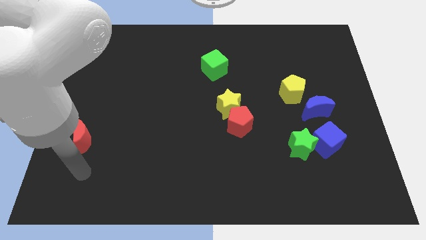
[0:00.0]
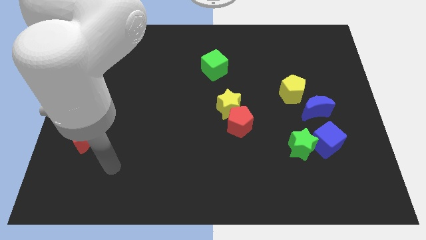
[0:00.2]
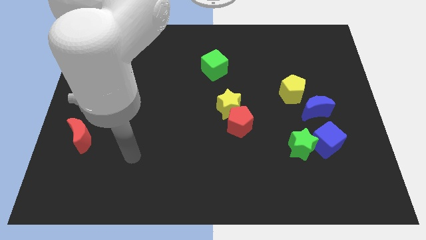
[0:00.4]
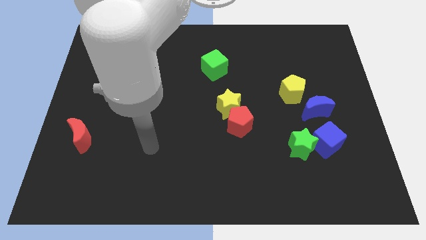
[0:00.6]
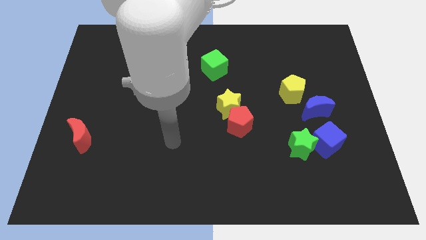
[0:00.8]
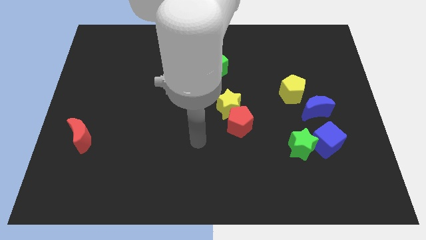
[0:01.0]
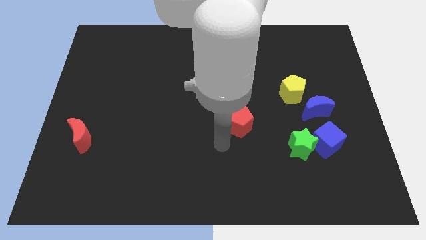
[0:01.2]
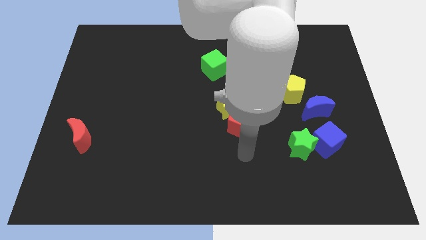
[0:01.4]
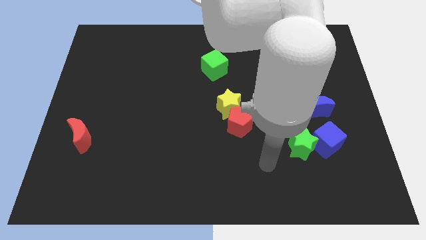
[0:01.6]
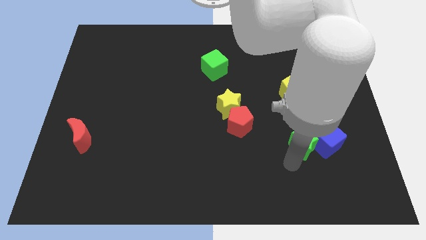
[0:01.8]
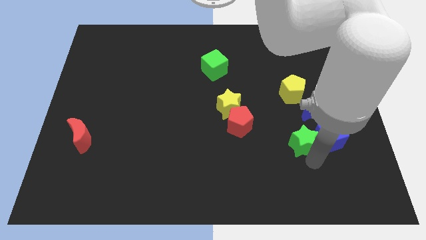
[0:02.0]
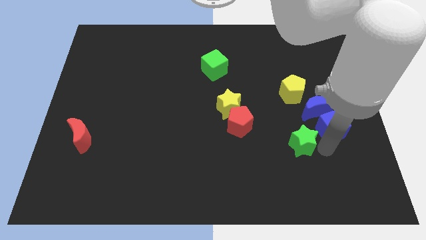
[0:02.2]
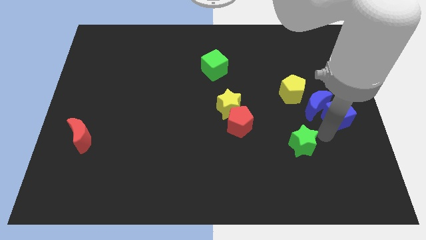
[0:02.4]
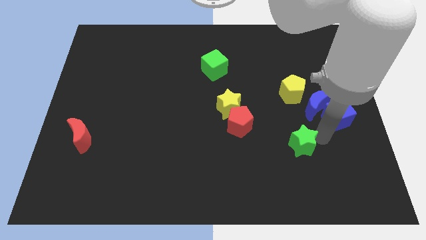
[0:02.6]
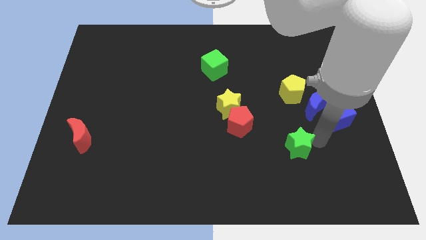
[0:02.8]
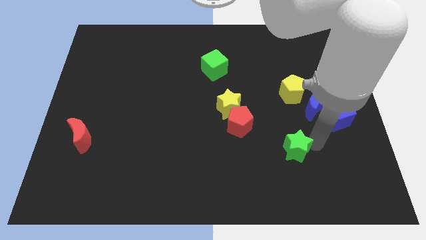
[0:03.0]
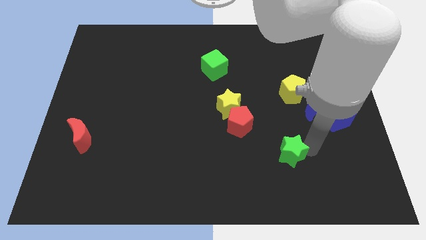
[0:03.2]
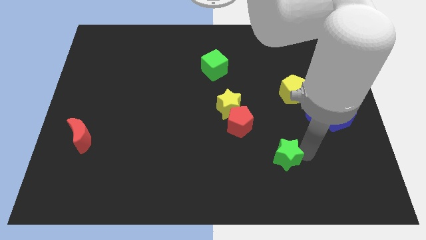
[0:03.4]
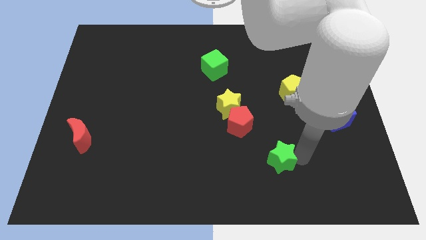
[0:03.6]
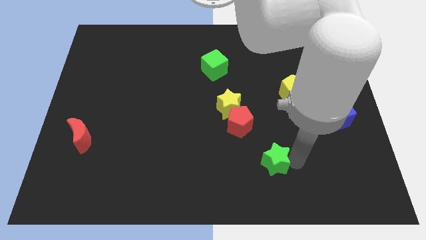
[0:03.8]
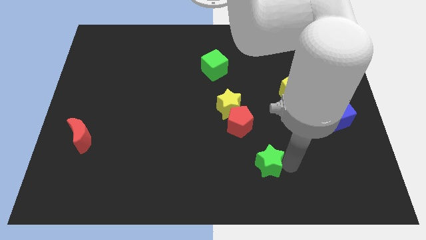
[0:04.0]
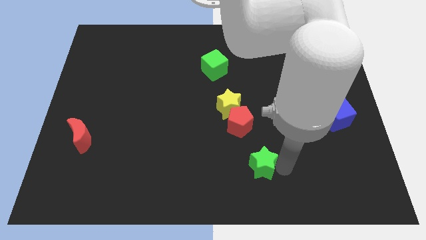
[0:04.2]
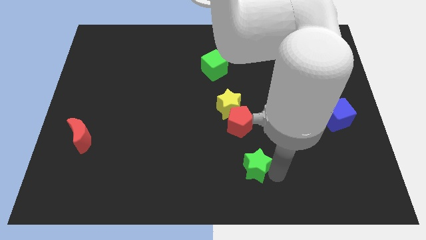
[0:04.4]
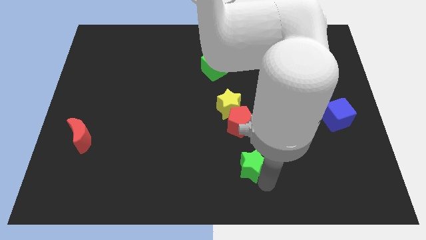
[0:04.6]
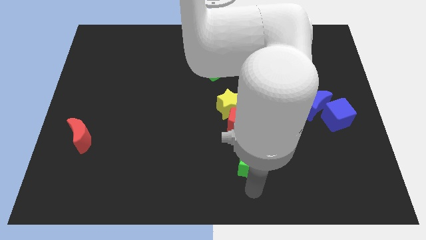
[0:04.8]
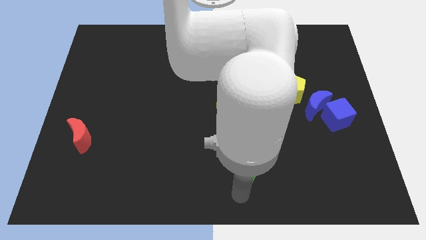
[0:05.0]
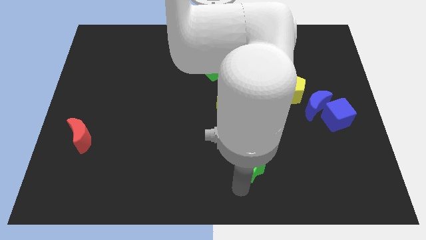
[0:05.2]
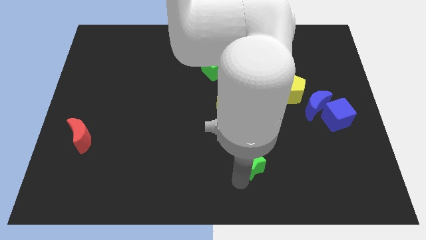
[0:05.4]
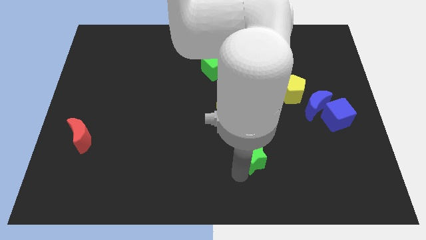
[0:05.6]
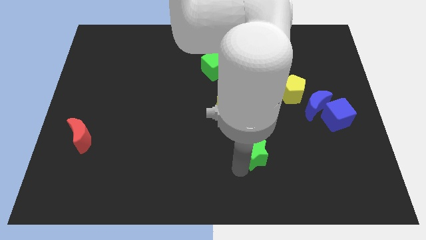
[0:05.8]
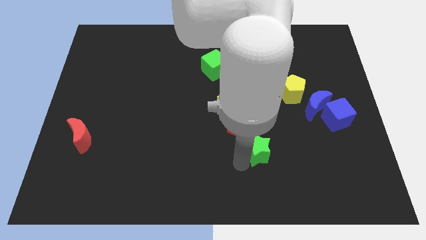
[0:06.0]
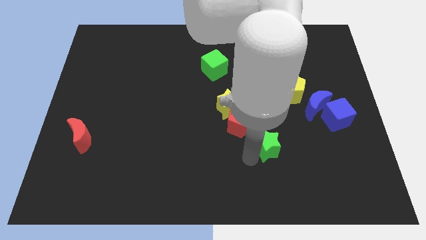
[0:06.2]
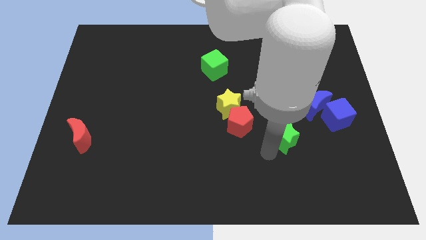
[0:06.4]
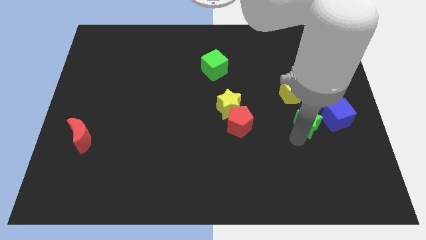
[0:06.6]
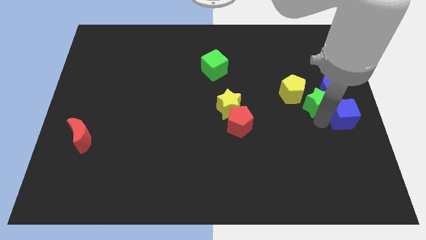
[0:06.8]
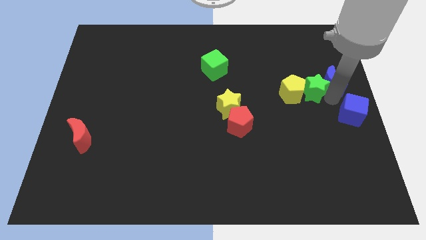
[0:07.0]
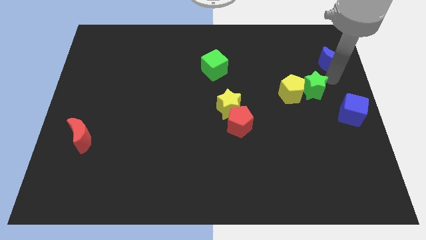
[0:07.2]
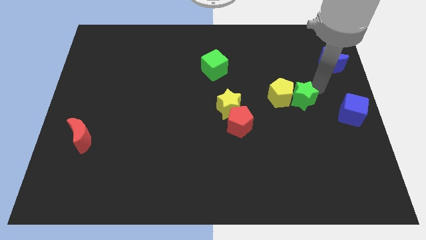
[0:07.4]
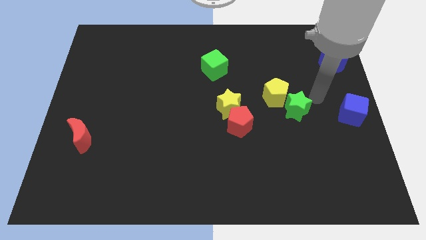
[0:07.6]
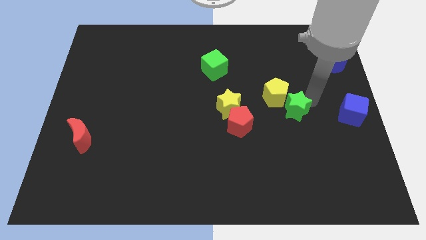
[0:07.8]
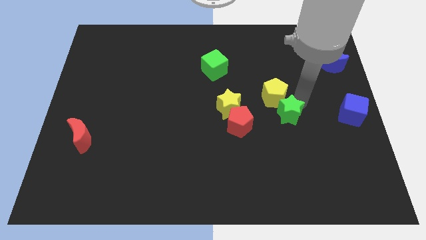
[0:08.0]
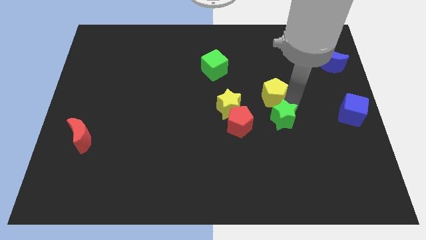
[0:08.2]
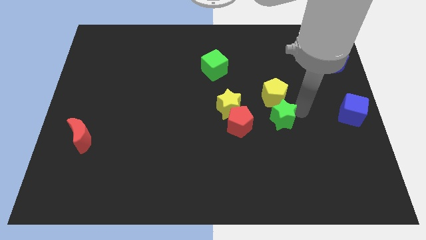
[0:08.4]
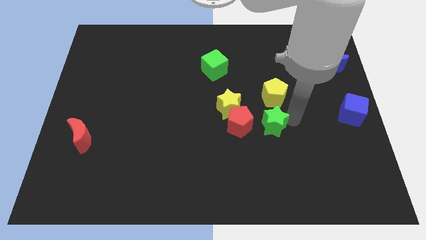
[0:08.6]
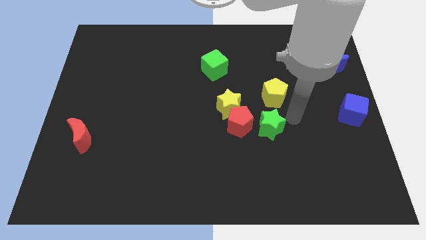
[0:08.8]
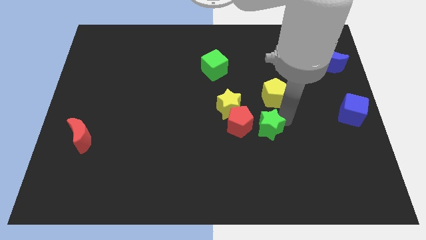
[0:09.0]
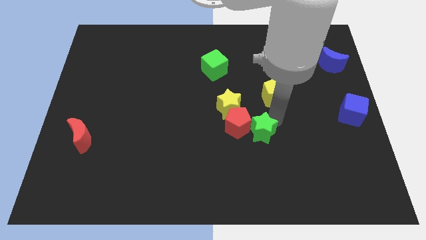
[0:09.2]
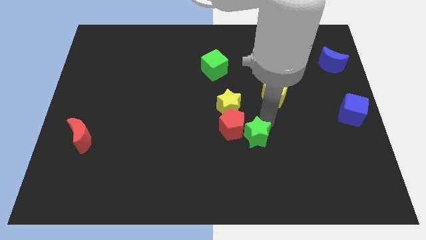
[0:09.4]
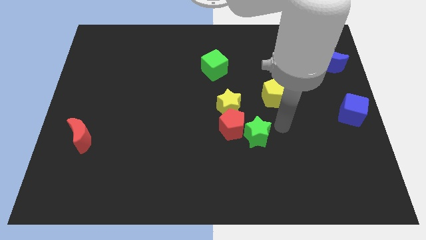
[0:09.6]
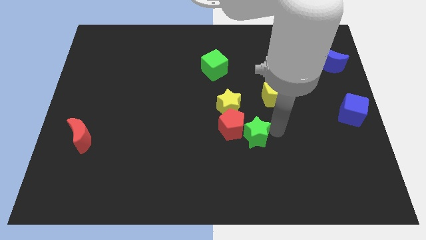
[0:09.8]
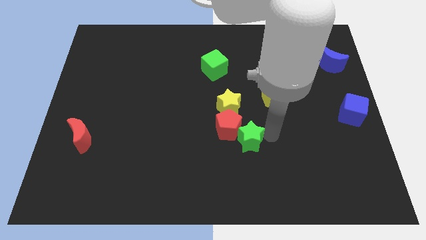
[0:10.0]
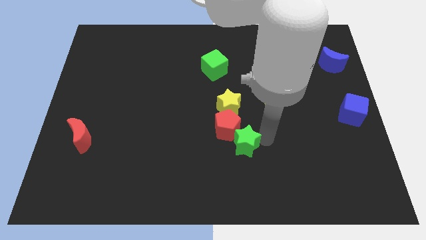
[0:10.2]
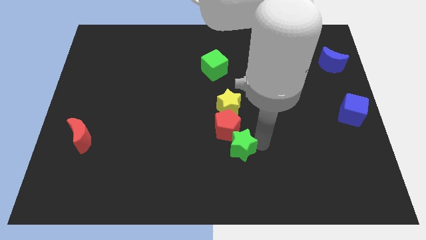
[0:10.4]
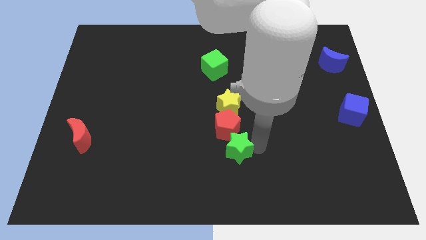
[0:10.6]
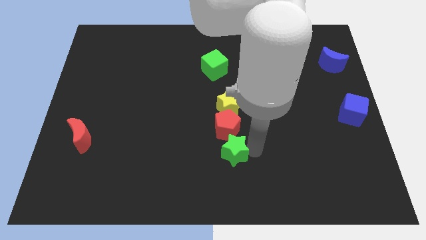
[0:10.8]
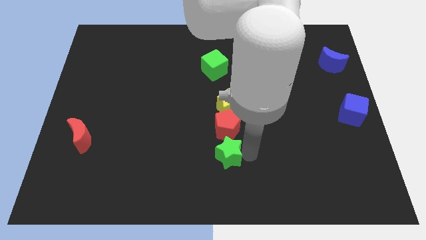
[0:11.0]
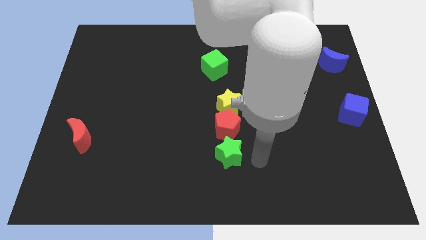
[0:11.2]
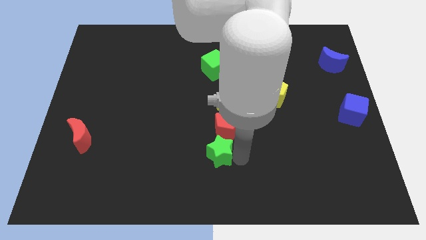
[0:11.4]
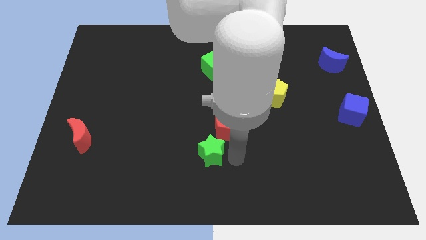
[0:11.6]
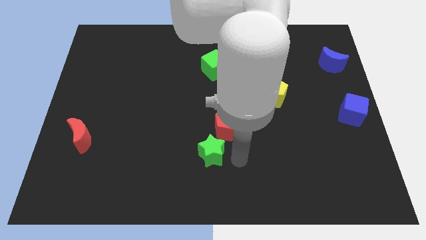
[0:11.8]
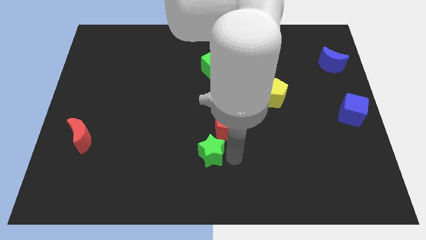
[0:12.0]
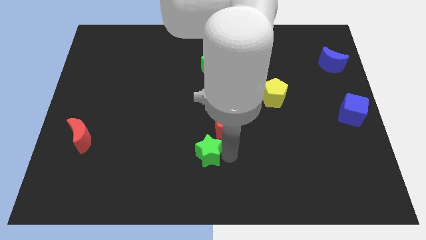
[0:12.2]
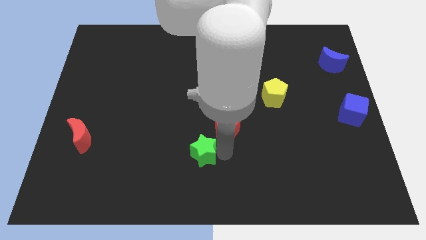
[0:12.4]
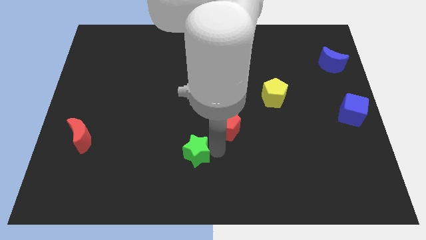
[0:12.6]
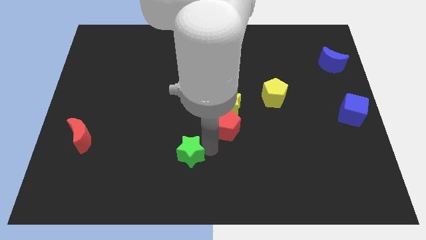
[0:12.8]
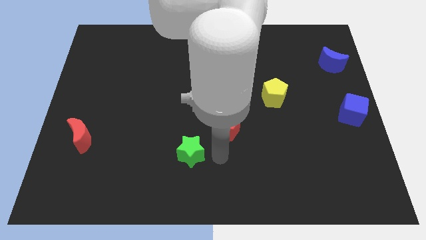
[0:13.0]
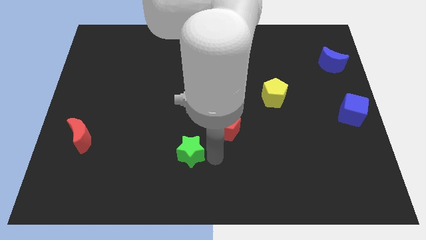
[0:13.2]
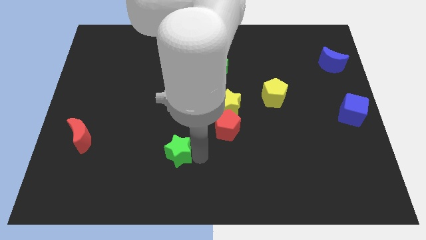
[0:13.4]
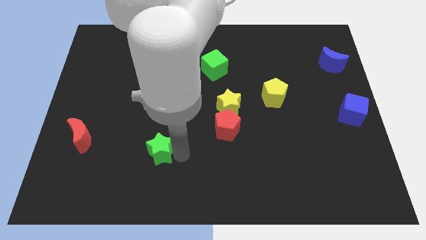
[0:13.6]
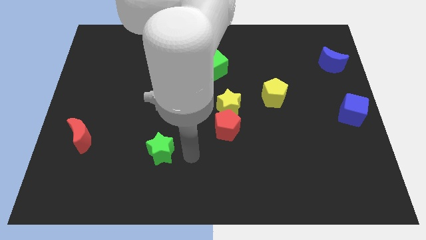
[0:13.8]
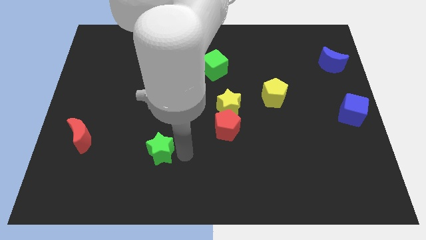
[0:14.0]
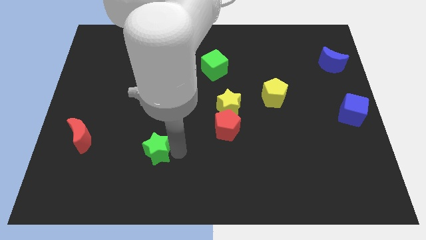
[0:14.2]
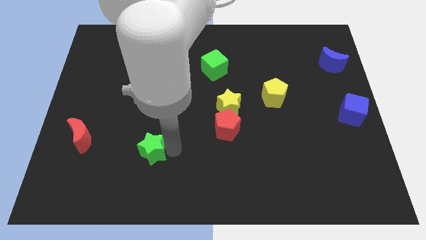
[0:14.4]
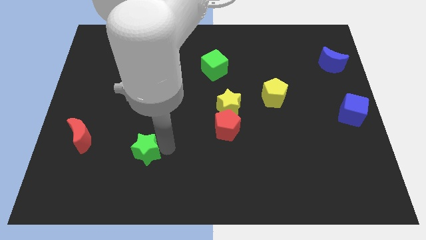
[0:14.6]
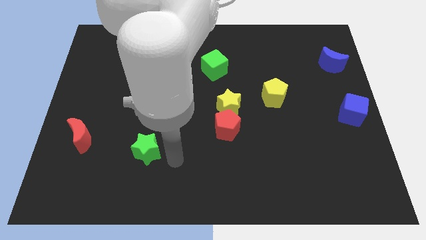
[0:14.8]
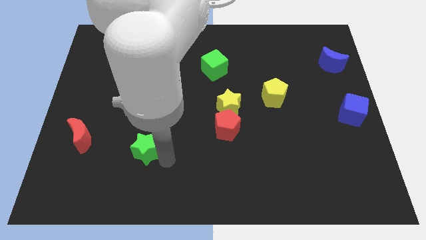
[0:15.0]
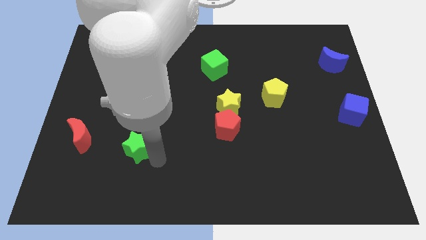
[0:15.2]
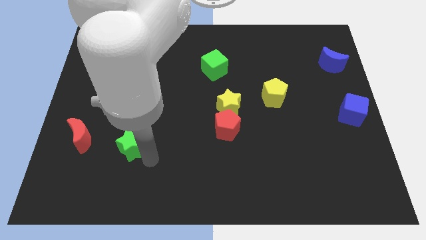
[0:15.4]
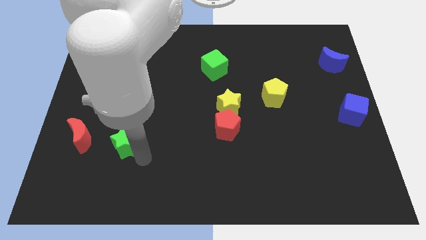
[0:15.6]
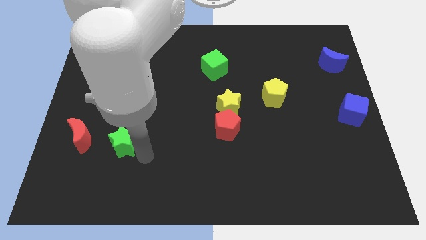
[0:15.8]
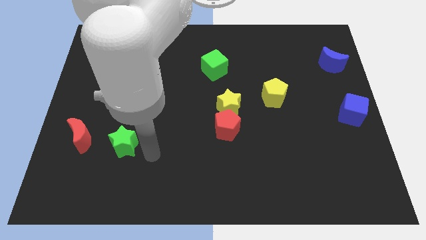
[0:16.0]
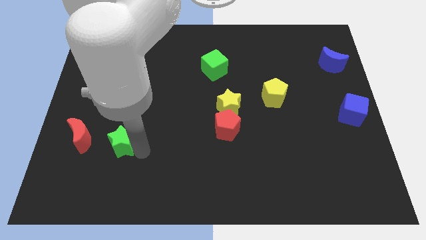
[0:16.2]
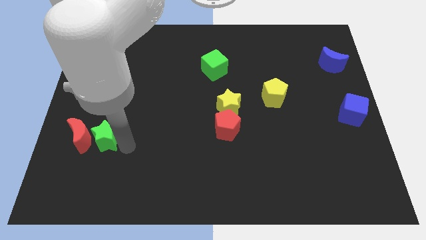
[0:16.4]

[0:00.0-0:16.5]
slide the green star to the red moon
